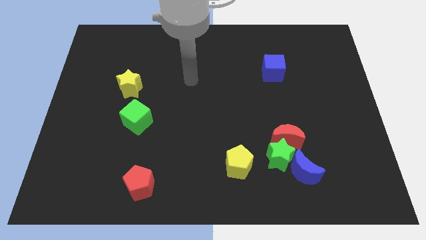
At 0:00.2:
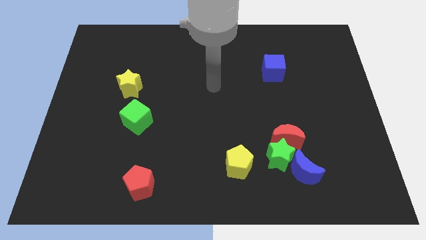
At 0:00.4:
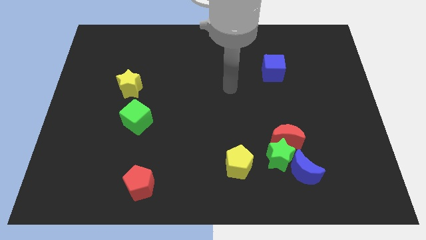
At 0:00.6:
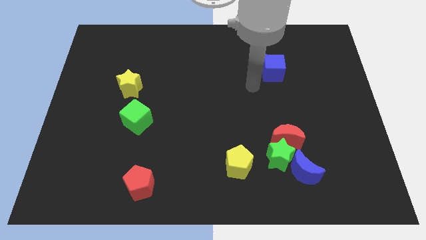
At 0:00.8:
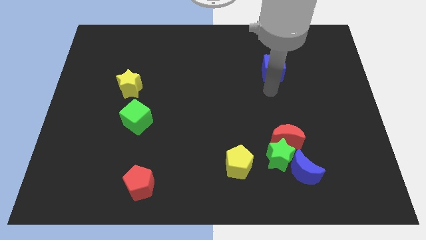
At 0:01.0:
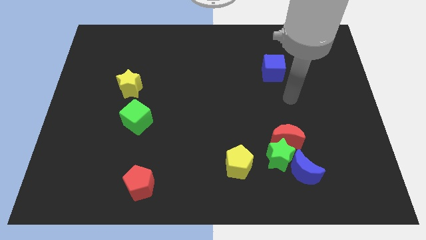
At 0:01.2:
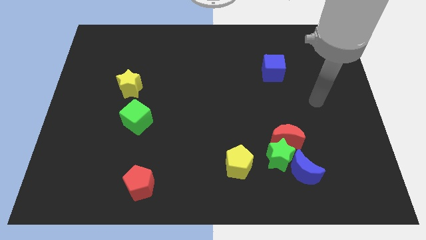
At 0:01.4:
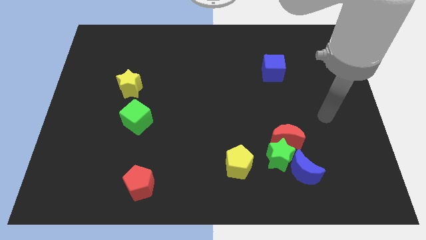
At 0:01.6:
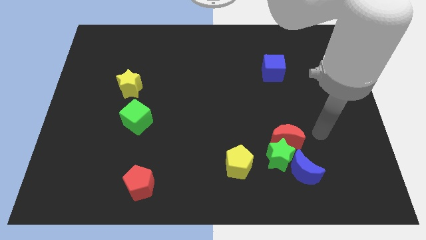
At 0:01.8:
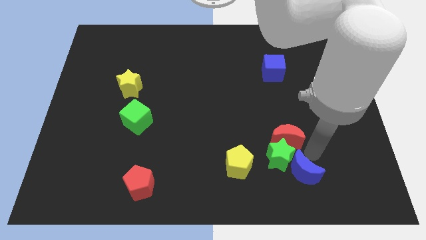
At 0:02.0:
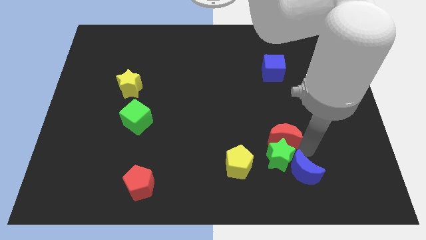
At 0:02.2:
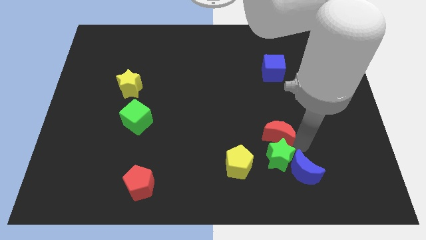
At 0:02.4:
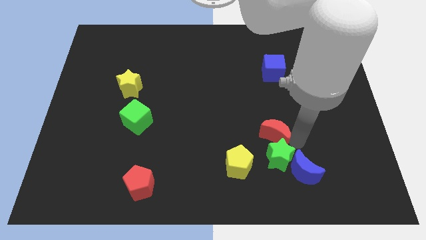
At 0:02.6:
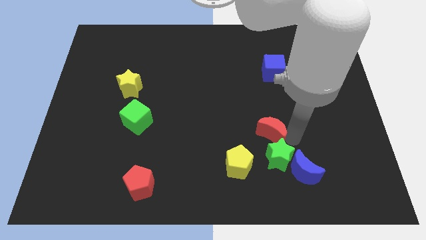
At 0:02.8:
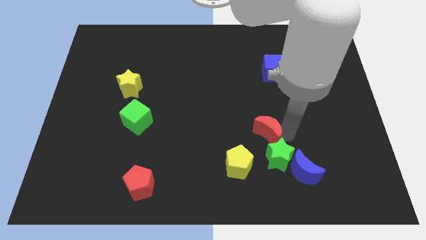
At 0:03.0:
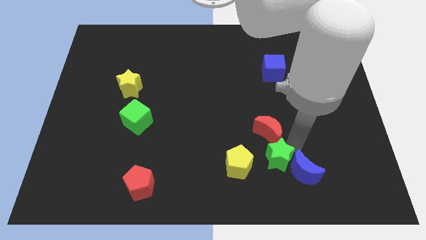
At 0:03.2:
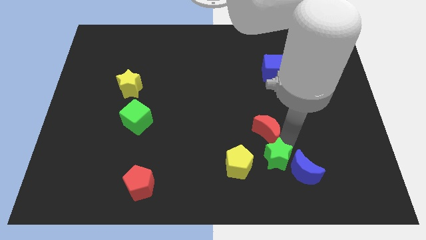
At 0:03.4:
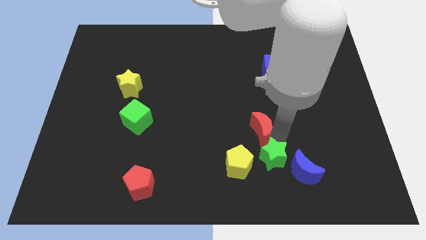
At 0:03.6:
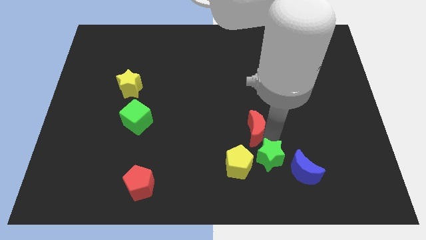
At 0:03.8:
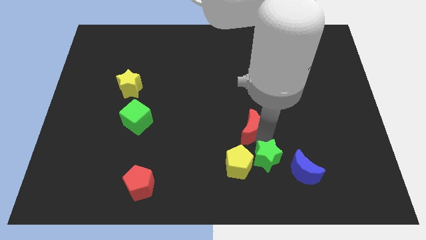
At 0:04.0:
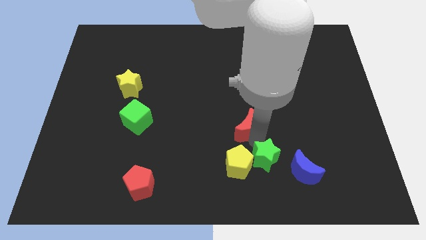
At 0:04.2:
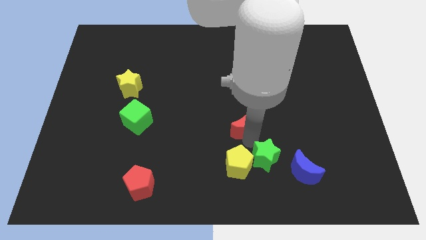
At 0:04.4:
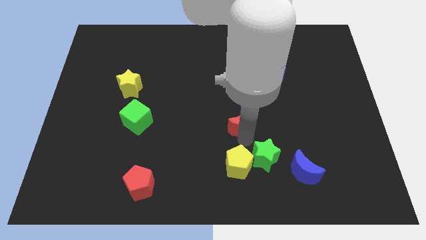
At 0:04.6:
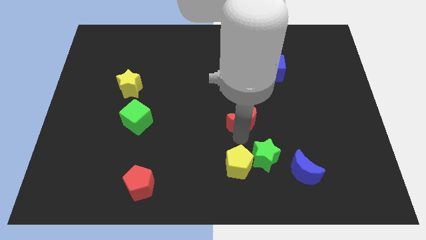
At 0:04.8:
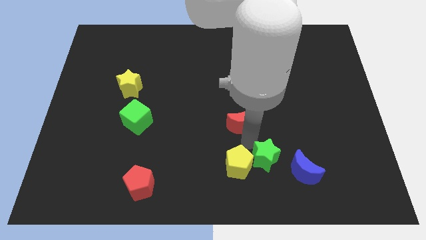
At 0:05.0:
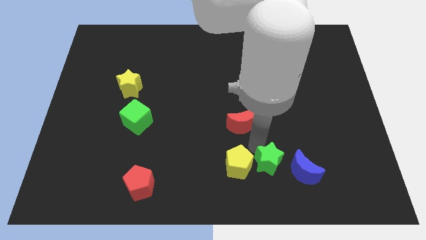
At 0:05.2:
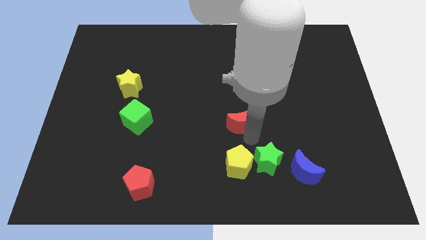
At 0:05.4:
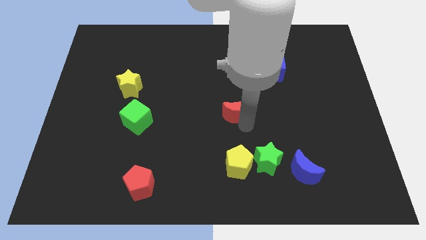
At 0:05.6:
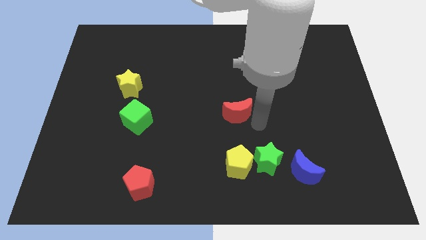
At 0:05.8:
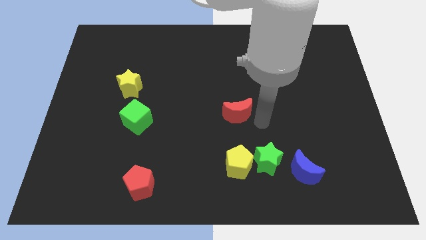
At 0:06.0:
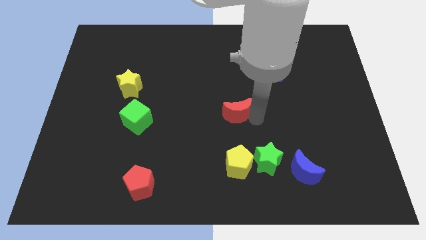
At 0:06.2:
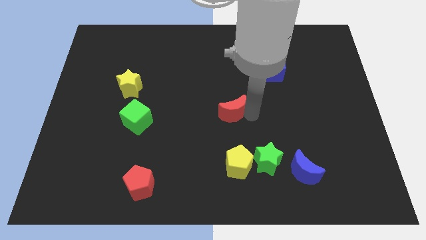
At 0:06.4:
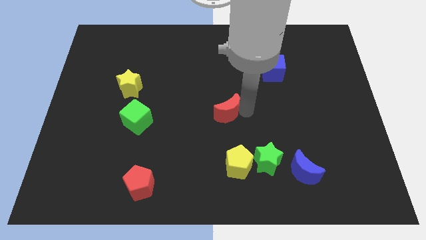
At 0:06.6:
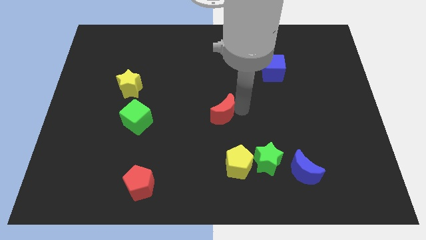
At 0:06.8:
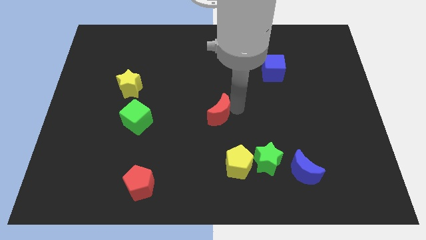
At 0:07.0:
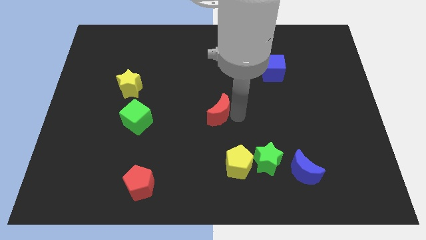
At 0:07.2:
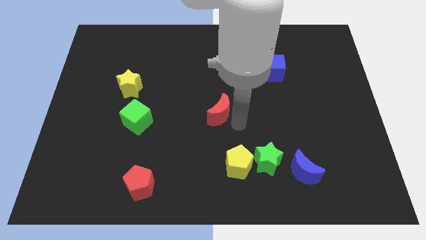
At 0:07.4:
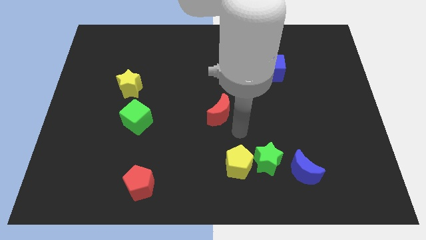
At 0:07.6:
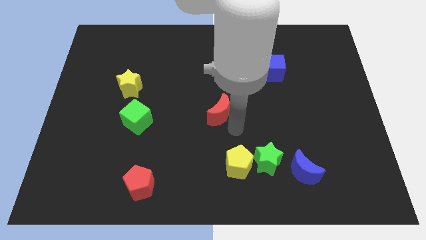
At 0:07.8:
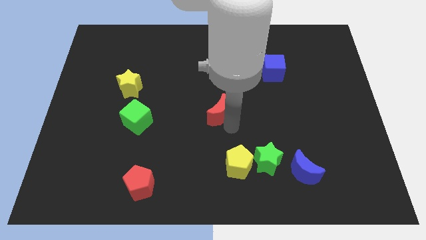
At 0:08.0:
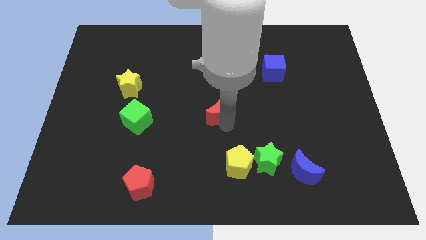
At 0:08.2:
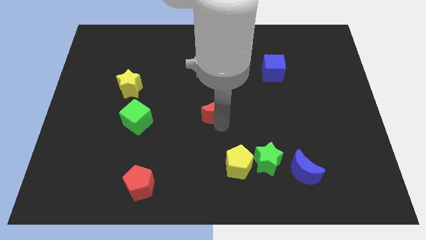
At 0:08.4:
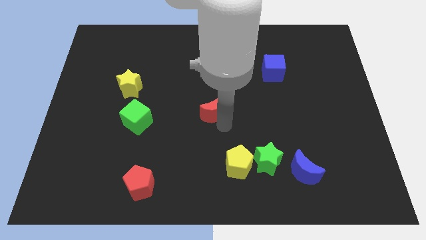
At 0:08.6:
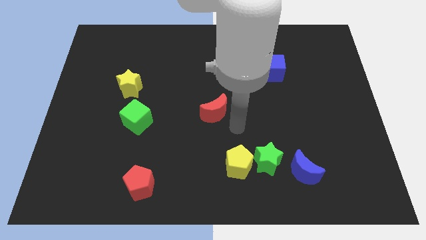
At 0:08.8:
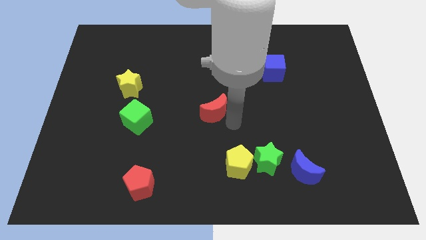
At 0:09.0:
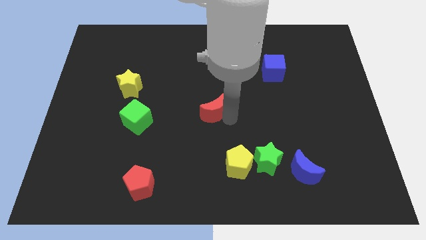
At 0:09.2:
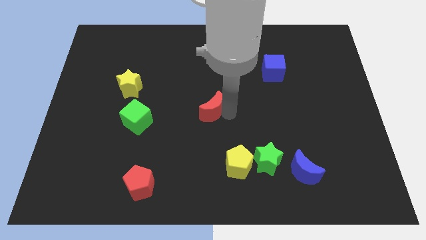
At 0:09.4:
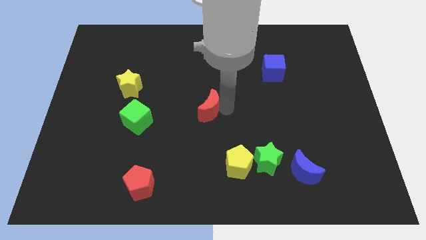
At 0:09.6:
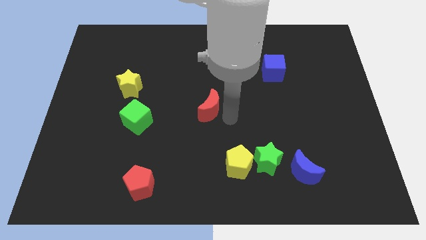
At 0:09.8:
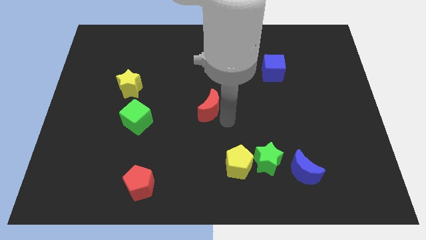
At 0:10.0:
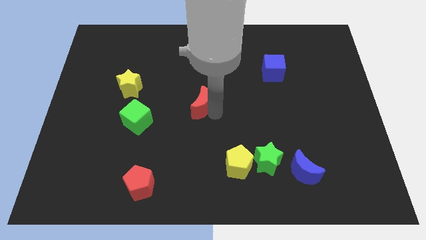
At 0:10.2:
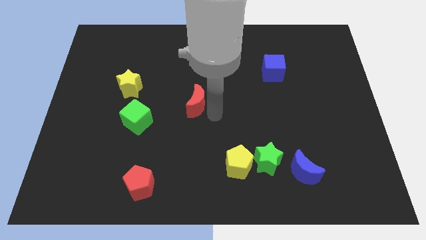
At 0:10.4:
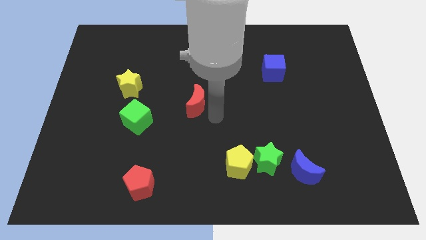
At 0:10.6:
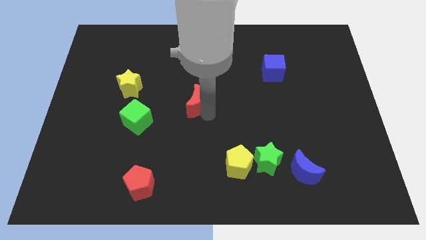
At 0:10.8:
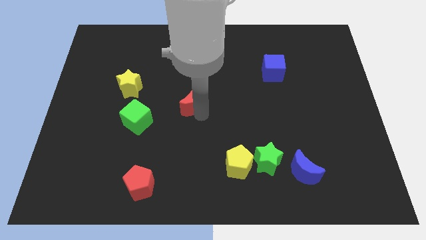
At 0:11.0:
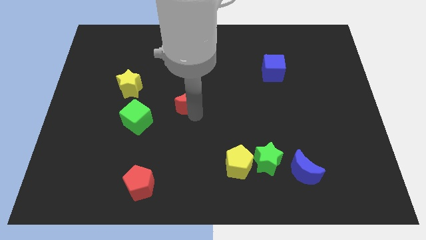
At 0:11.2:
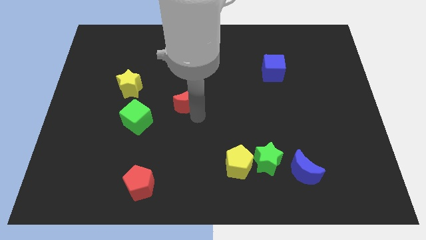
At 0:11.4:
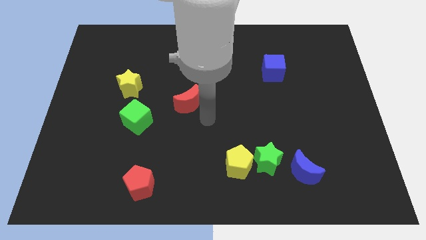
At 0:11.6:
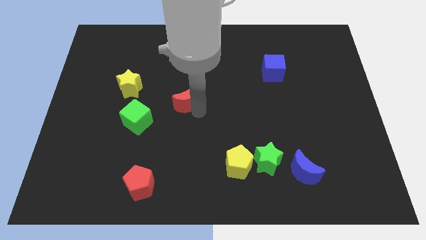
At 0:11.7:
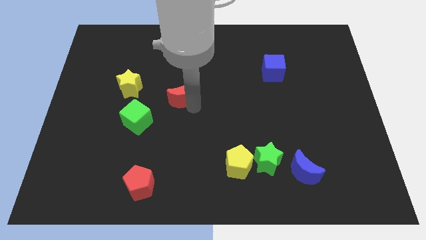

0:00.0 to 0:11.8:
push the red moon right of the yellow star
